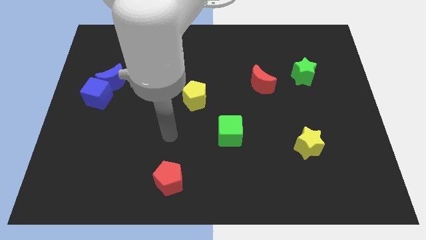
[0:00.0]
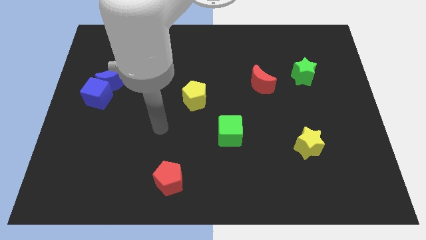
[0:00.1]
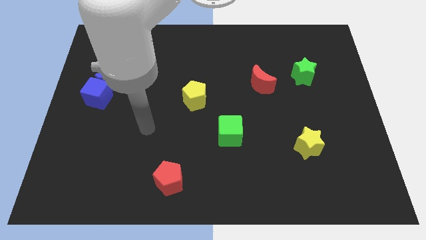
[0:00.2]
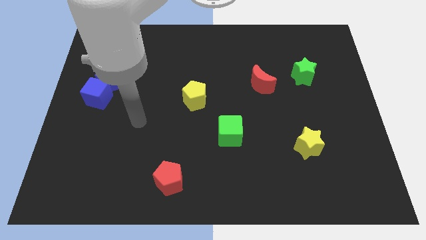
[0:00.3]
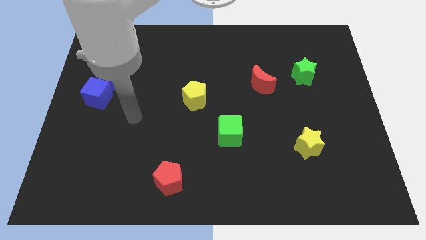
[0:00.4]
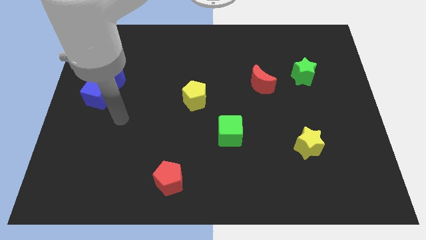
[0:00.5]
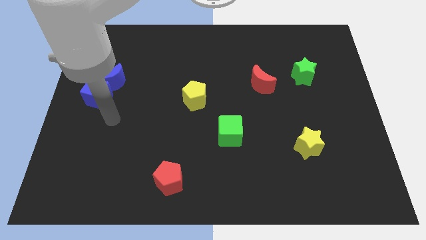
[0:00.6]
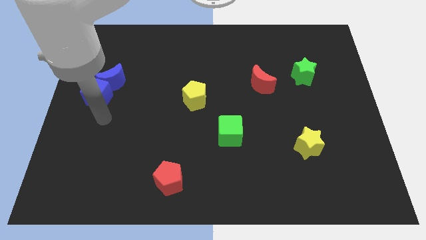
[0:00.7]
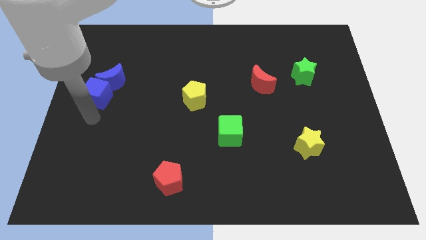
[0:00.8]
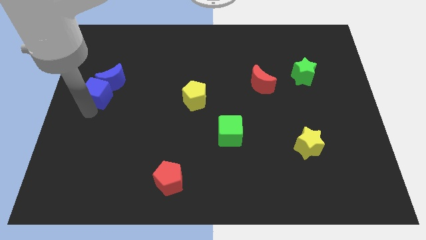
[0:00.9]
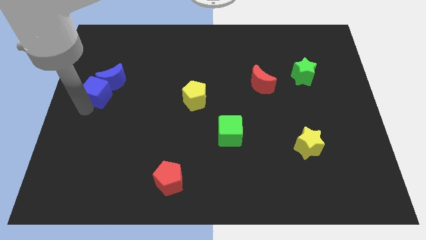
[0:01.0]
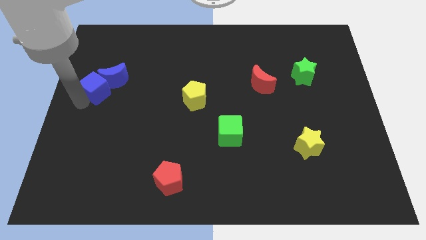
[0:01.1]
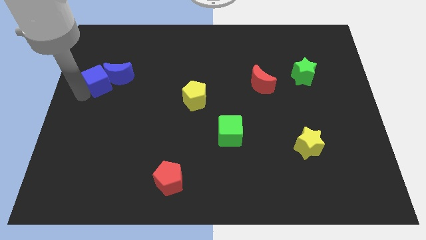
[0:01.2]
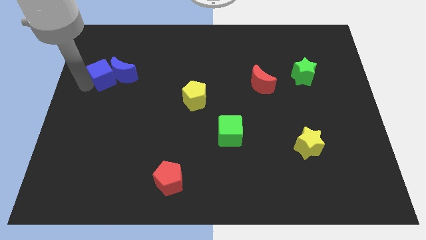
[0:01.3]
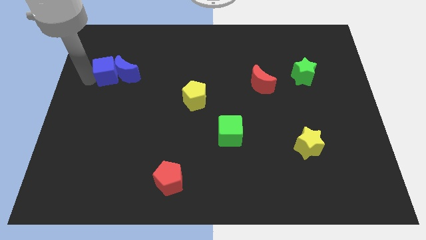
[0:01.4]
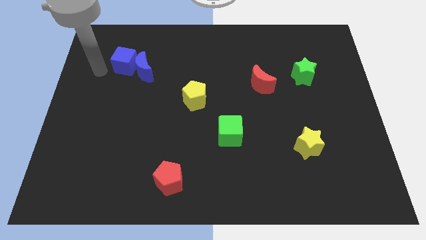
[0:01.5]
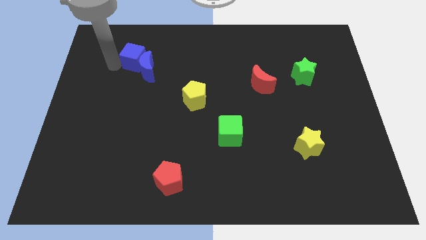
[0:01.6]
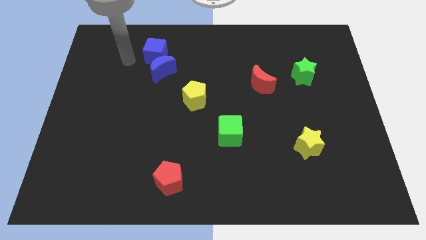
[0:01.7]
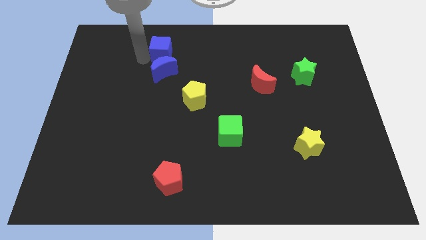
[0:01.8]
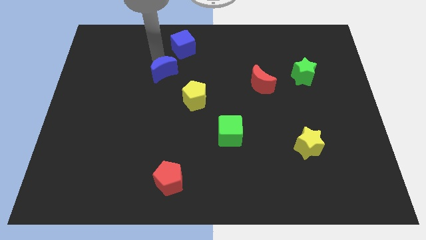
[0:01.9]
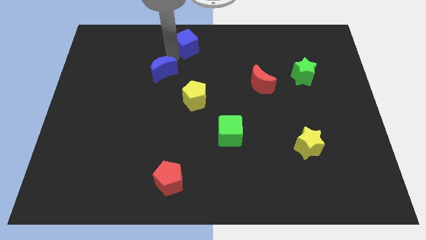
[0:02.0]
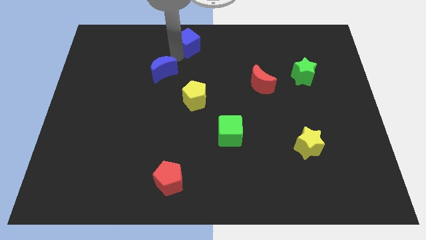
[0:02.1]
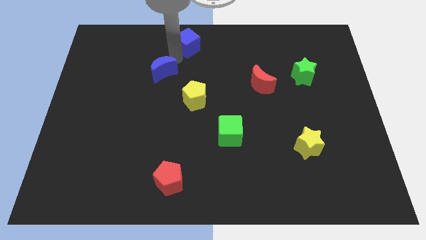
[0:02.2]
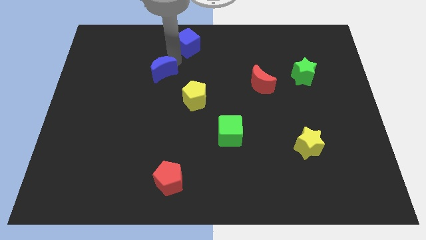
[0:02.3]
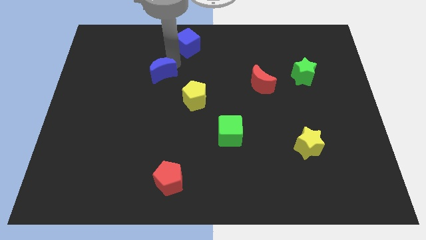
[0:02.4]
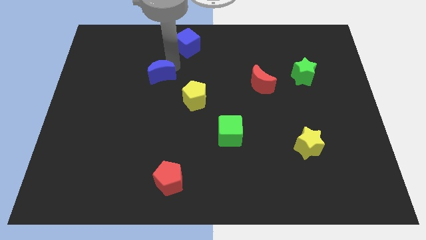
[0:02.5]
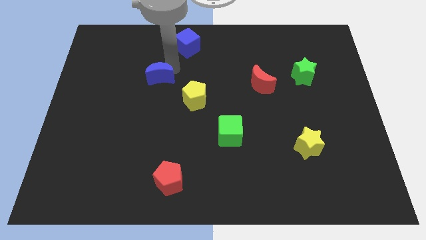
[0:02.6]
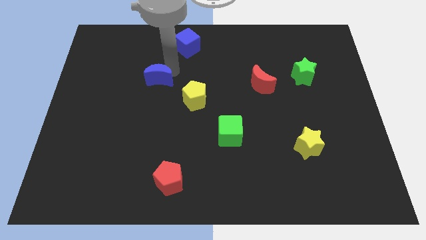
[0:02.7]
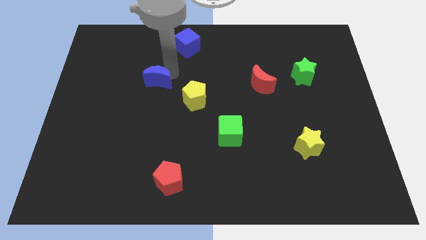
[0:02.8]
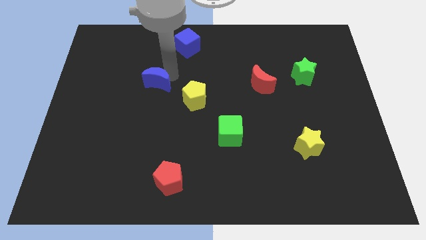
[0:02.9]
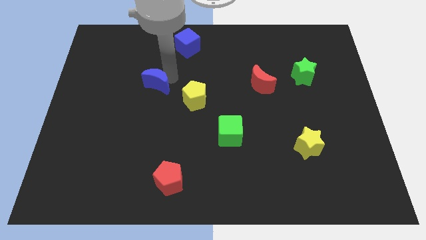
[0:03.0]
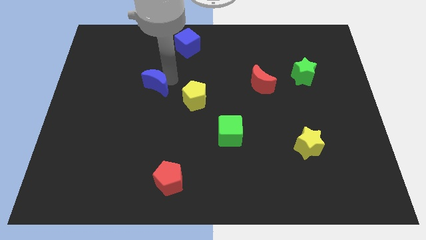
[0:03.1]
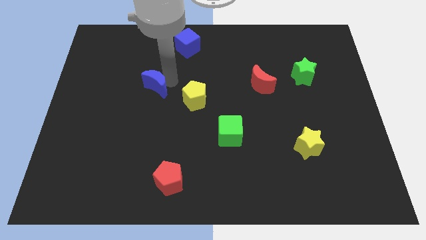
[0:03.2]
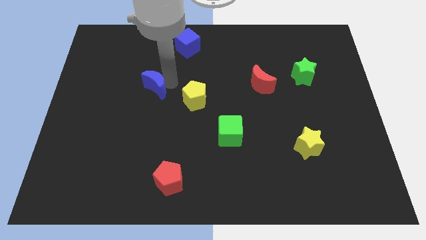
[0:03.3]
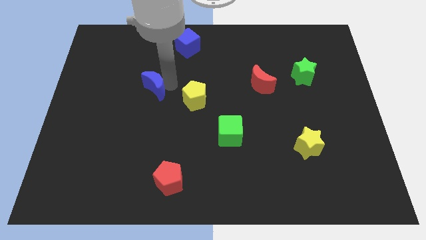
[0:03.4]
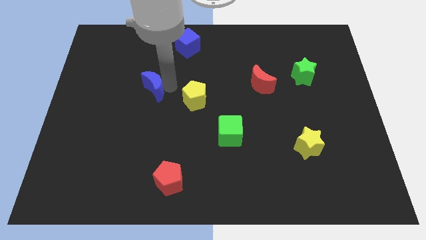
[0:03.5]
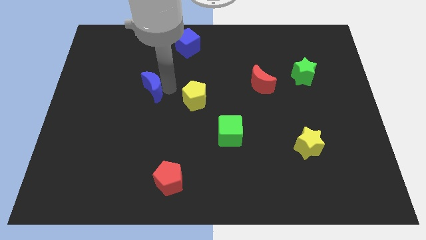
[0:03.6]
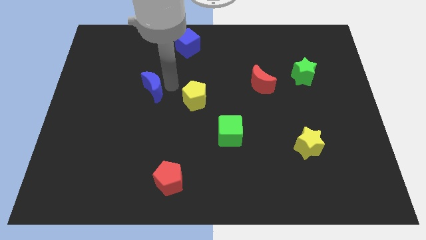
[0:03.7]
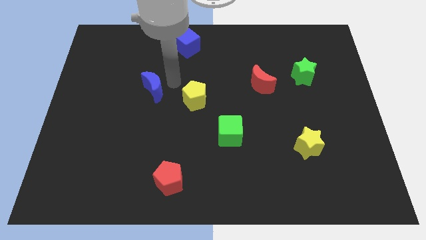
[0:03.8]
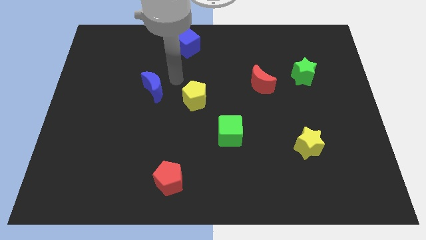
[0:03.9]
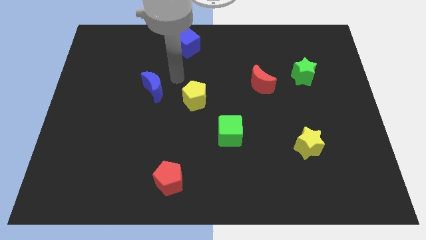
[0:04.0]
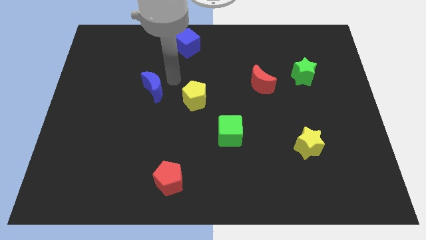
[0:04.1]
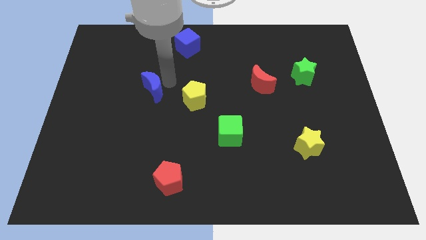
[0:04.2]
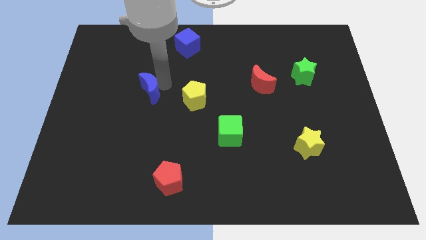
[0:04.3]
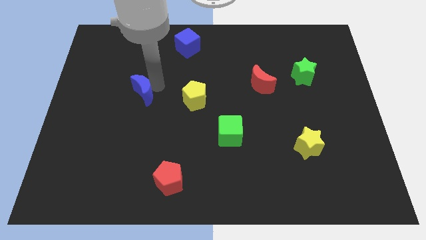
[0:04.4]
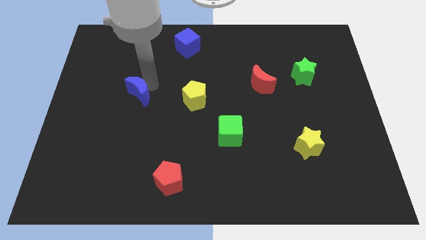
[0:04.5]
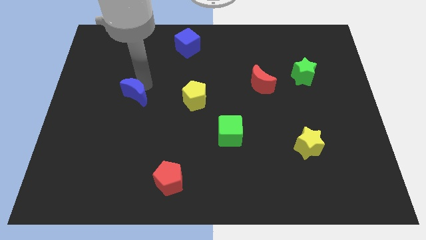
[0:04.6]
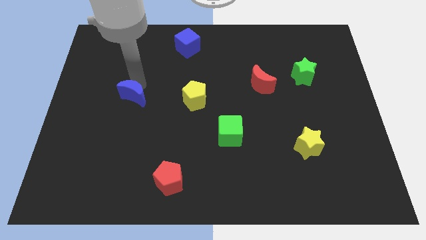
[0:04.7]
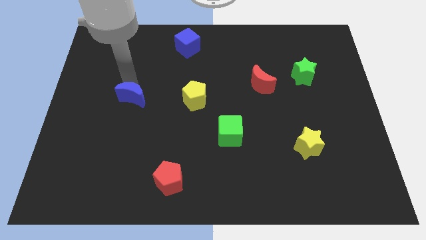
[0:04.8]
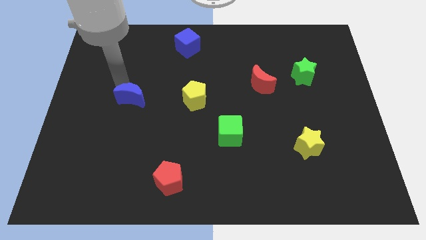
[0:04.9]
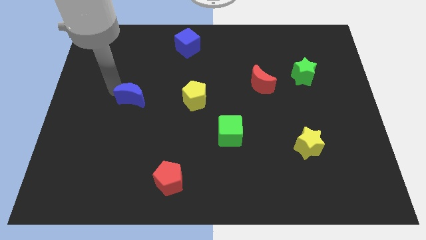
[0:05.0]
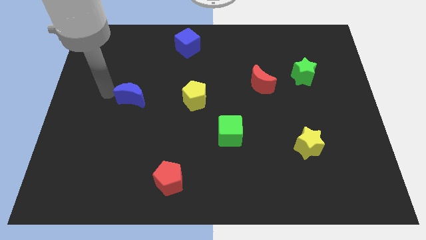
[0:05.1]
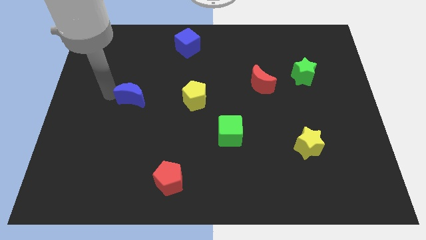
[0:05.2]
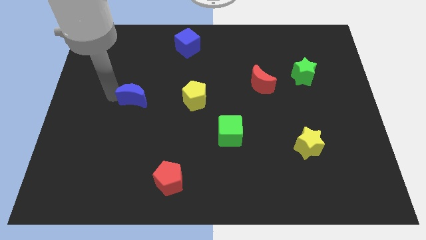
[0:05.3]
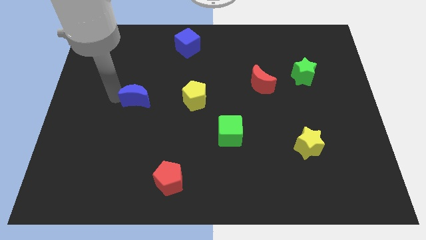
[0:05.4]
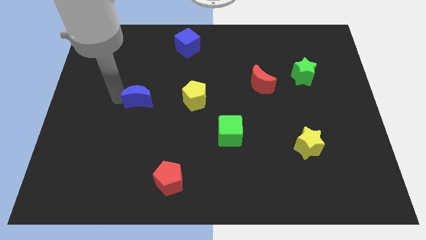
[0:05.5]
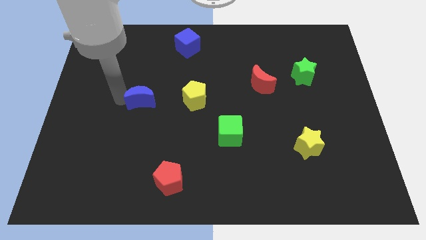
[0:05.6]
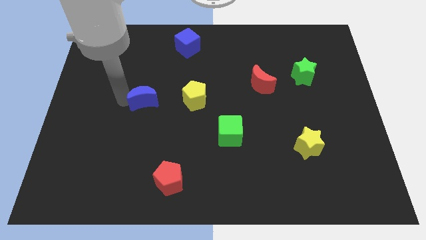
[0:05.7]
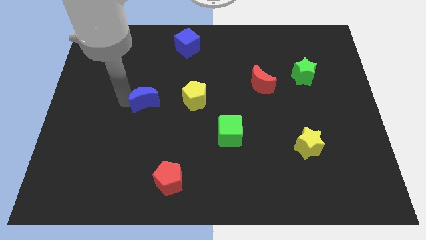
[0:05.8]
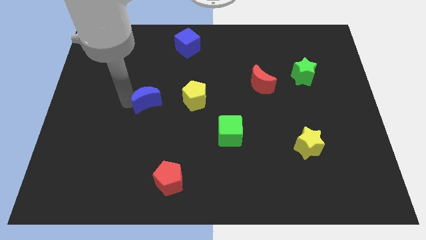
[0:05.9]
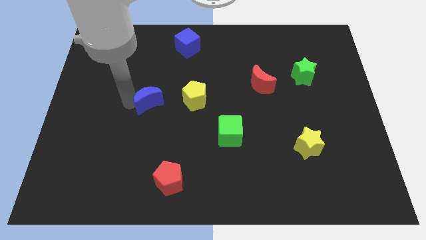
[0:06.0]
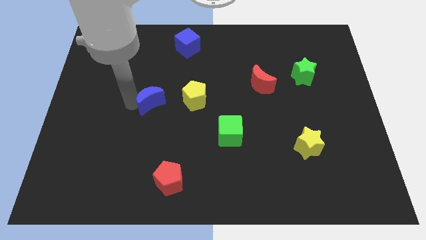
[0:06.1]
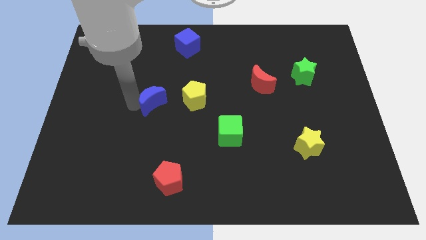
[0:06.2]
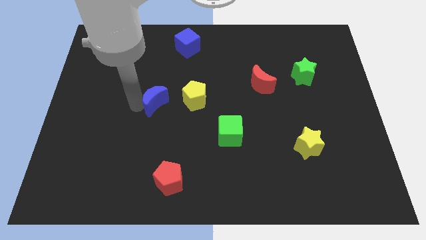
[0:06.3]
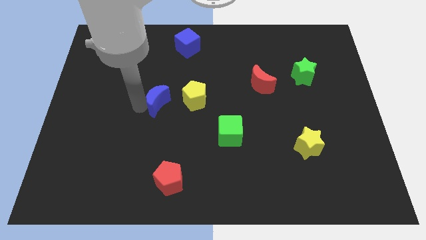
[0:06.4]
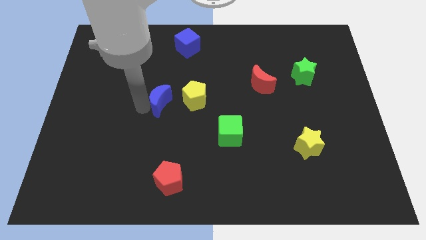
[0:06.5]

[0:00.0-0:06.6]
push the blue moon to the center of the board

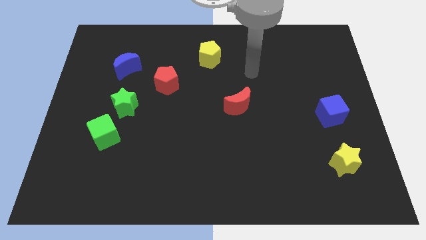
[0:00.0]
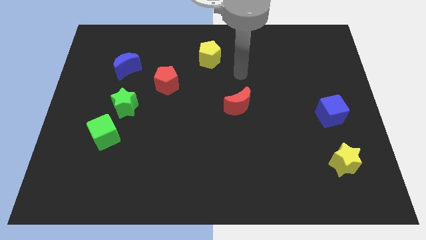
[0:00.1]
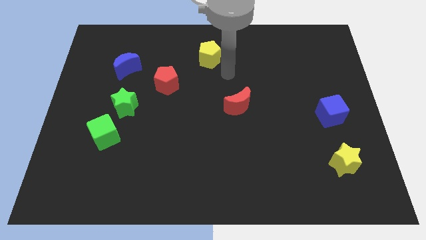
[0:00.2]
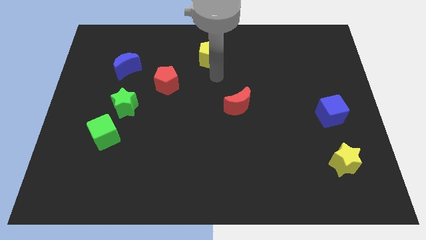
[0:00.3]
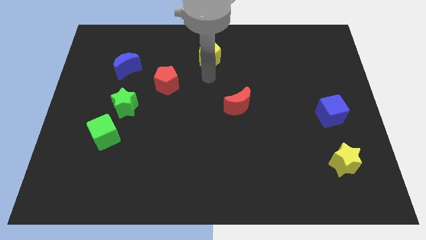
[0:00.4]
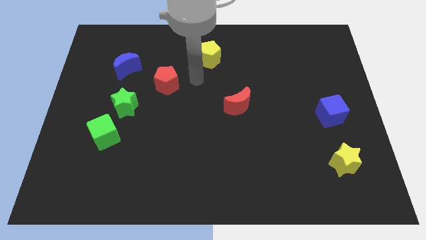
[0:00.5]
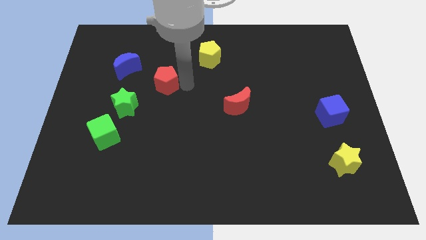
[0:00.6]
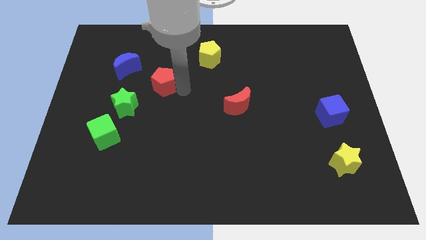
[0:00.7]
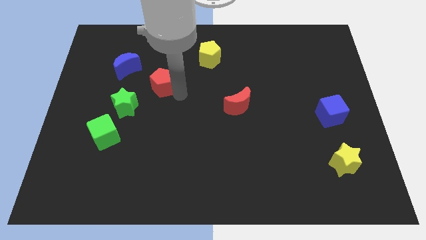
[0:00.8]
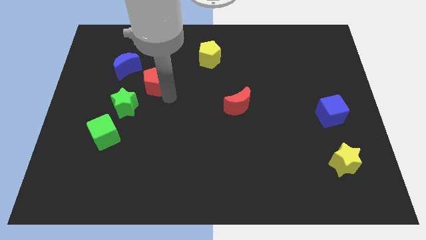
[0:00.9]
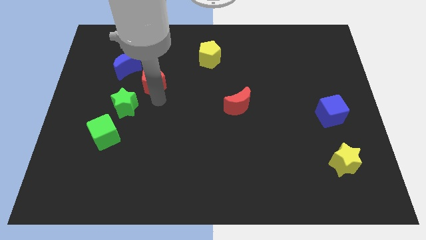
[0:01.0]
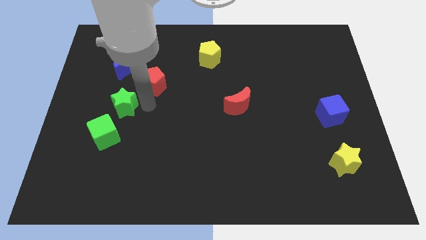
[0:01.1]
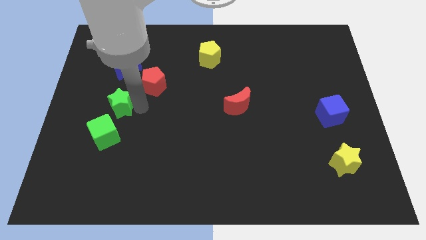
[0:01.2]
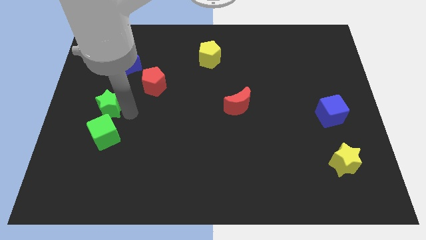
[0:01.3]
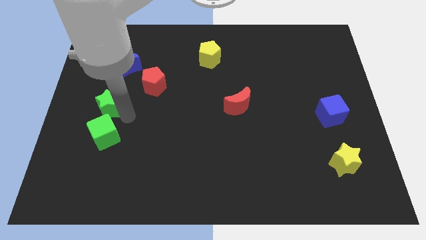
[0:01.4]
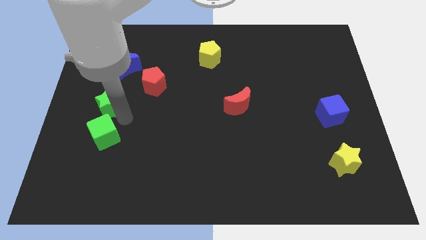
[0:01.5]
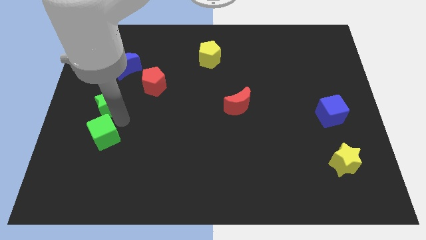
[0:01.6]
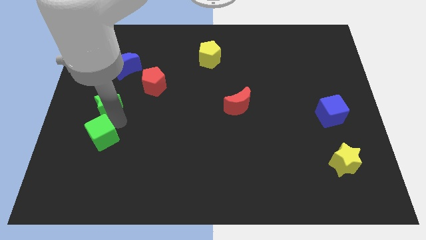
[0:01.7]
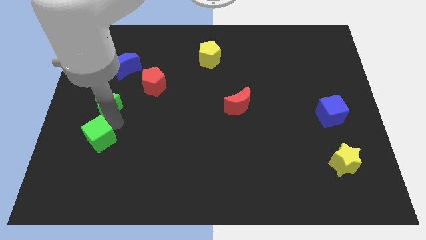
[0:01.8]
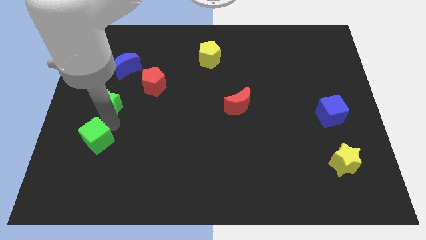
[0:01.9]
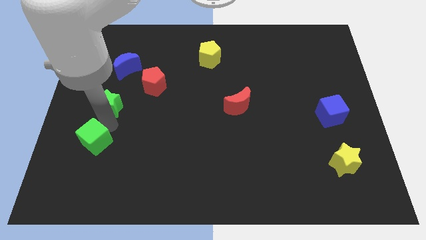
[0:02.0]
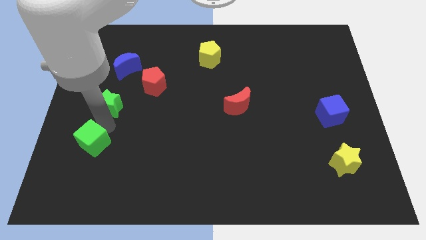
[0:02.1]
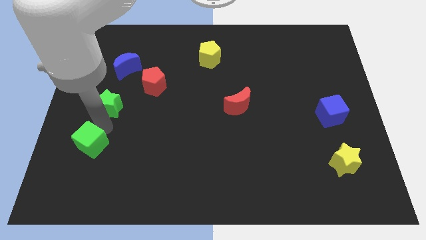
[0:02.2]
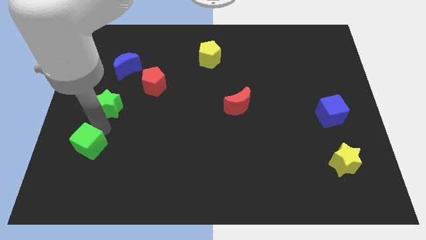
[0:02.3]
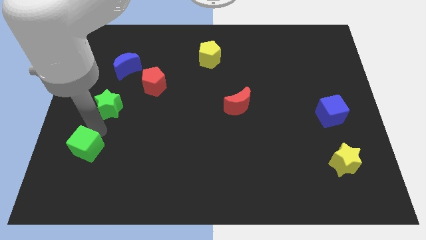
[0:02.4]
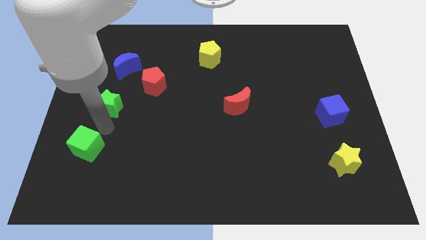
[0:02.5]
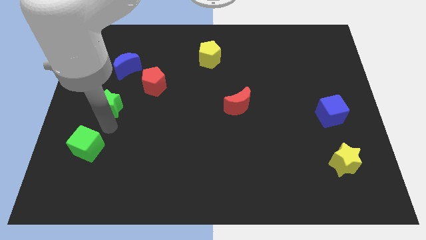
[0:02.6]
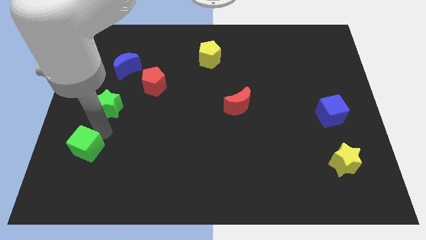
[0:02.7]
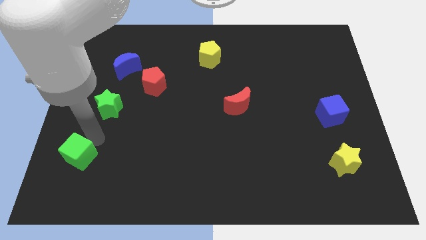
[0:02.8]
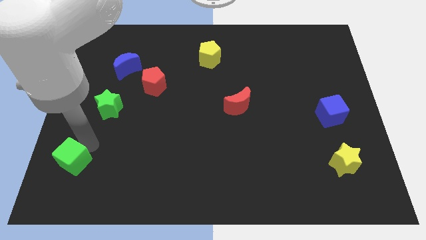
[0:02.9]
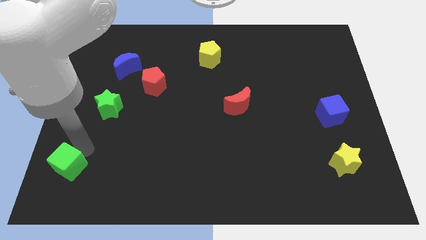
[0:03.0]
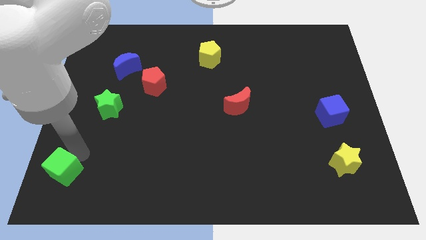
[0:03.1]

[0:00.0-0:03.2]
put the green cube to the bottom left of the board
